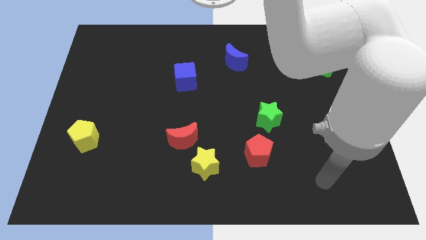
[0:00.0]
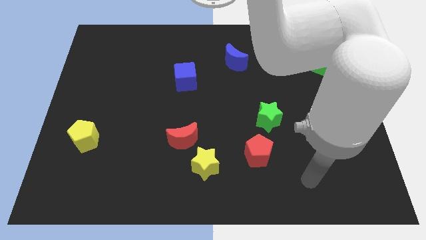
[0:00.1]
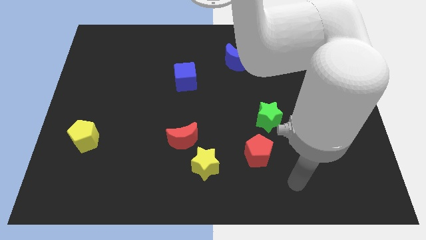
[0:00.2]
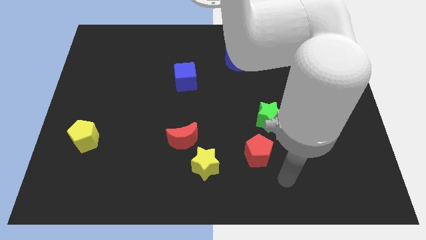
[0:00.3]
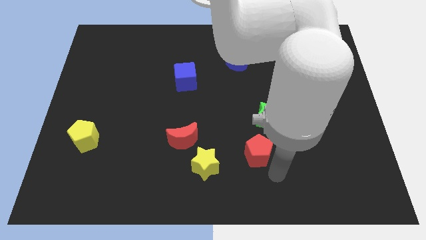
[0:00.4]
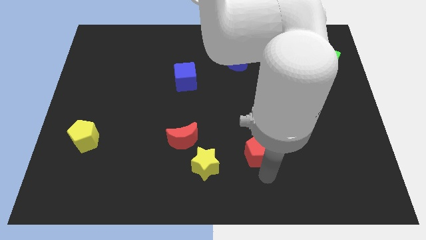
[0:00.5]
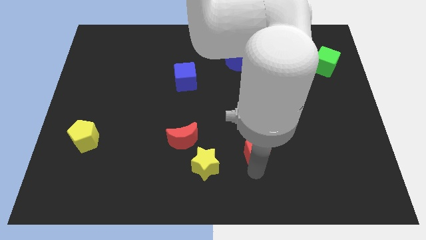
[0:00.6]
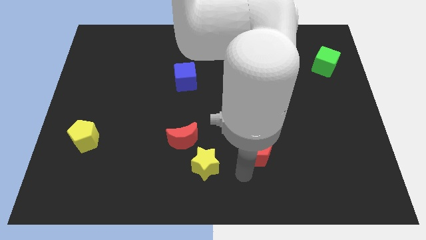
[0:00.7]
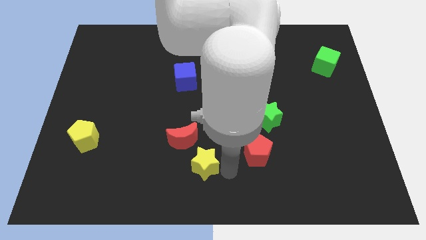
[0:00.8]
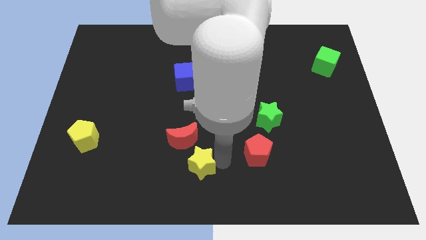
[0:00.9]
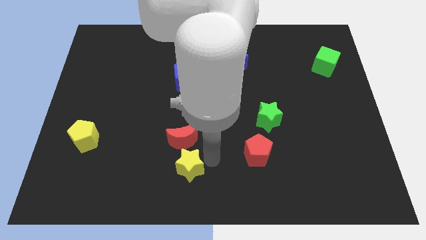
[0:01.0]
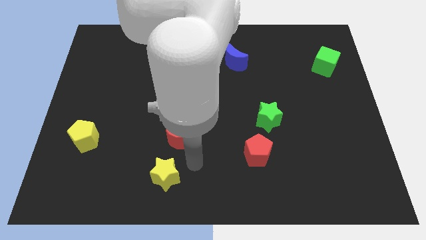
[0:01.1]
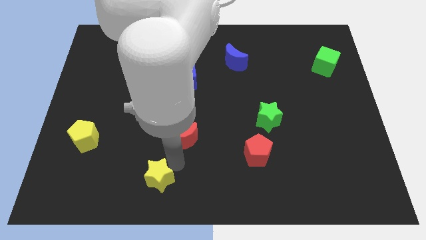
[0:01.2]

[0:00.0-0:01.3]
pull the red moon apart from the yellow star

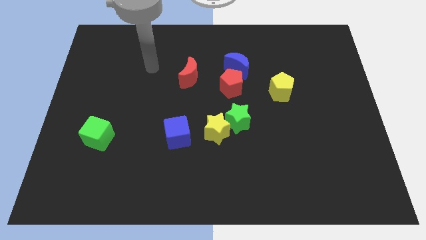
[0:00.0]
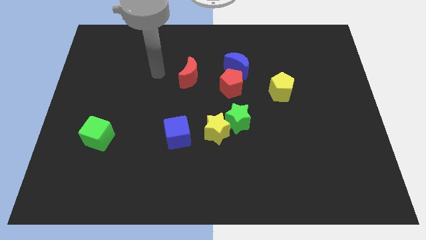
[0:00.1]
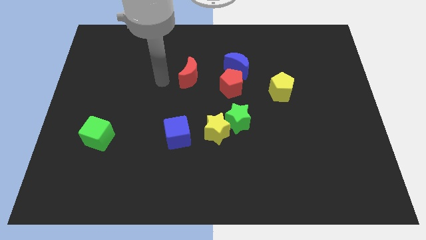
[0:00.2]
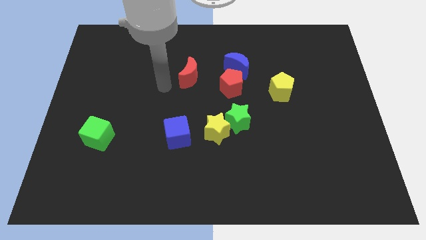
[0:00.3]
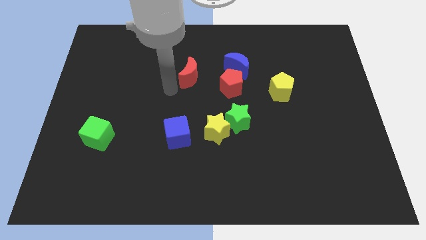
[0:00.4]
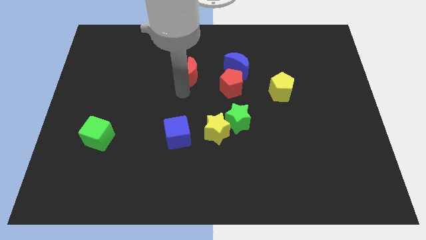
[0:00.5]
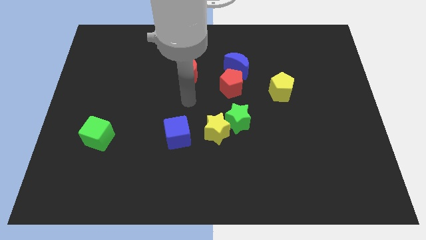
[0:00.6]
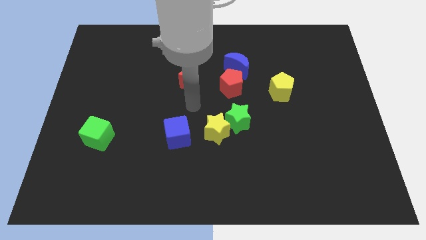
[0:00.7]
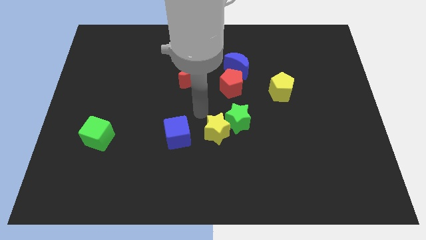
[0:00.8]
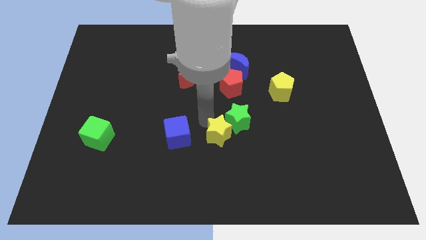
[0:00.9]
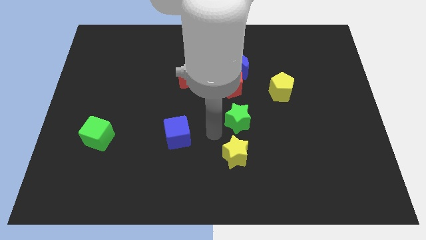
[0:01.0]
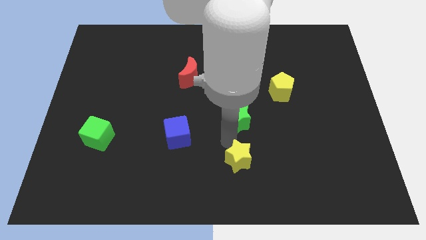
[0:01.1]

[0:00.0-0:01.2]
separate the green star from the yellow star

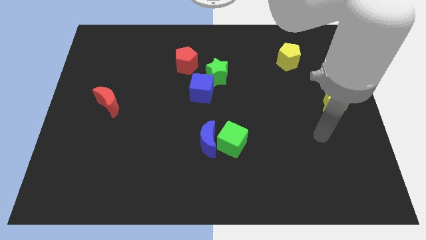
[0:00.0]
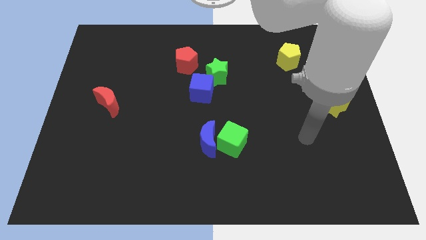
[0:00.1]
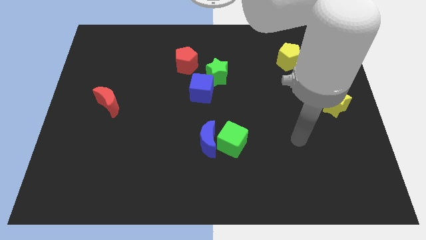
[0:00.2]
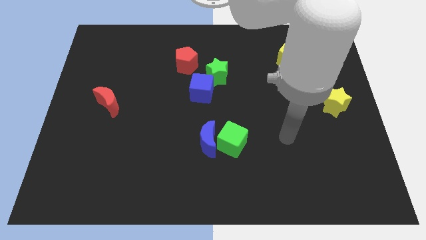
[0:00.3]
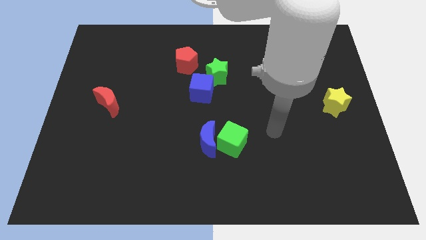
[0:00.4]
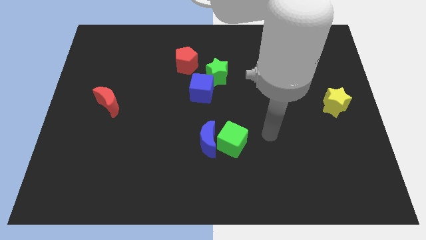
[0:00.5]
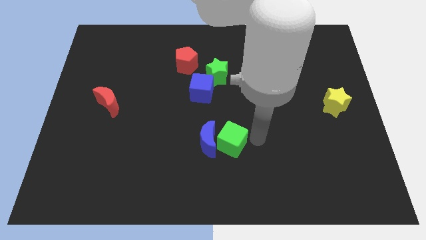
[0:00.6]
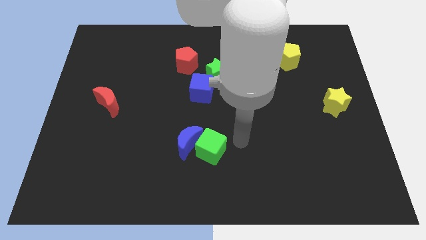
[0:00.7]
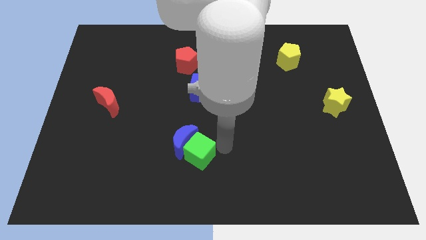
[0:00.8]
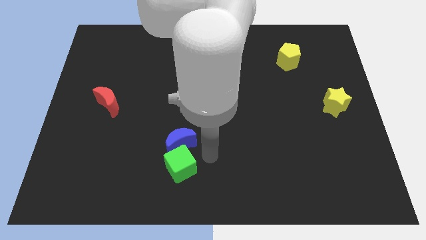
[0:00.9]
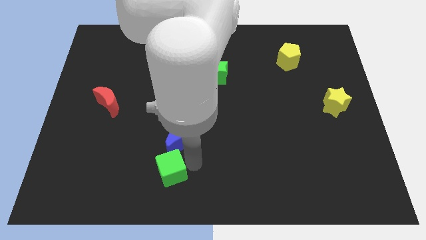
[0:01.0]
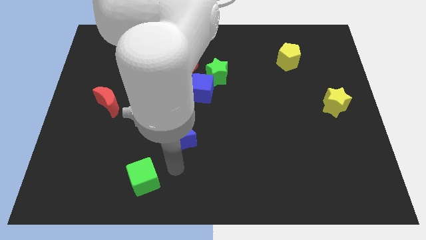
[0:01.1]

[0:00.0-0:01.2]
move the blue moon away from the green cube

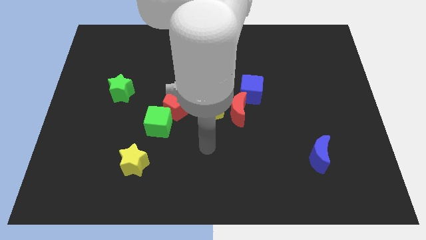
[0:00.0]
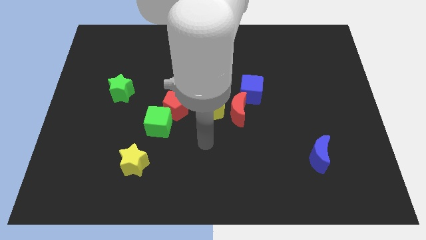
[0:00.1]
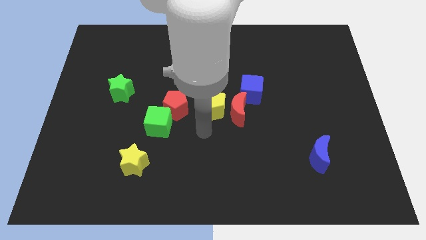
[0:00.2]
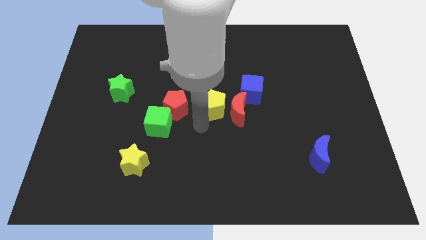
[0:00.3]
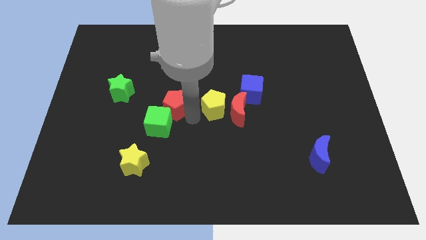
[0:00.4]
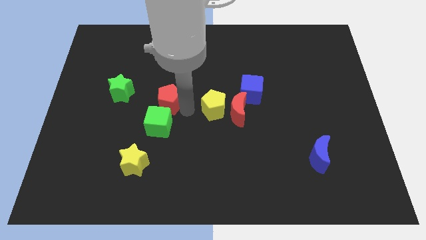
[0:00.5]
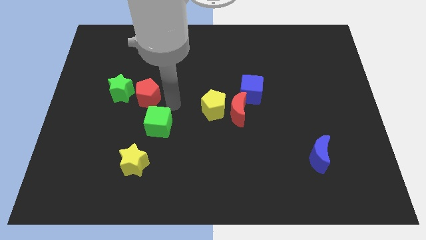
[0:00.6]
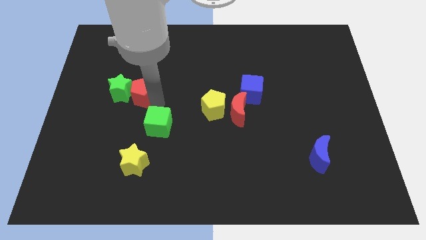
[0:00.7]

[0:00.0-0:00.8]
separate the green cube from the red pentagon

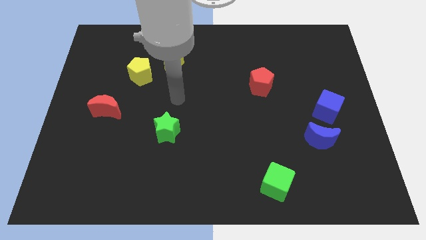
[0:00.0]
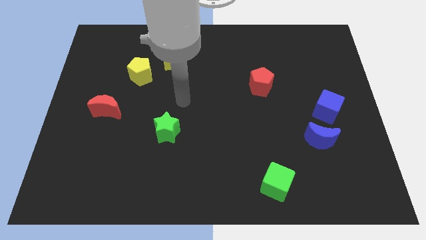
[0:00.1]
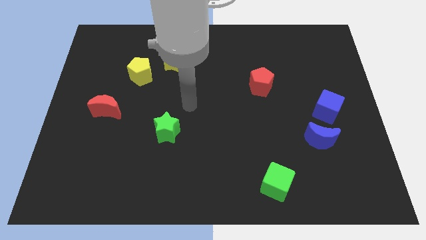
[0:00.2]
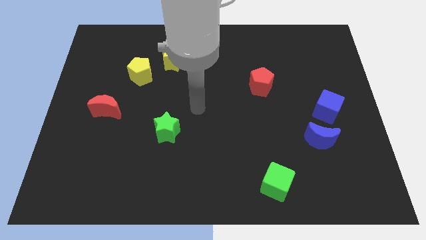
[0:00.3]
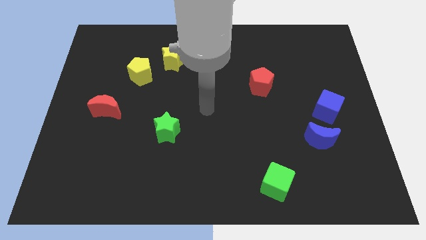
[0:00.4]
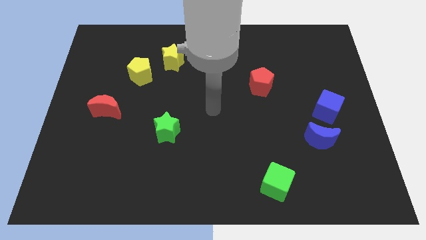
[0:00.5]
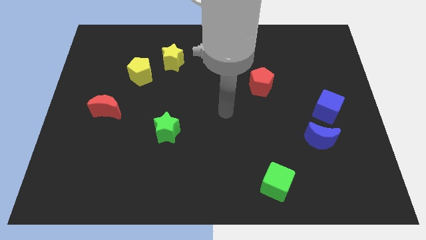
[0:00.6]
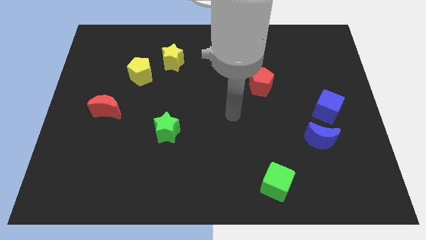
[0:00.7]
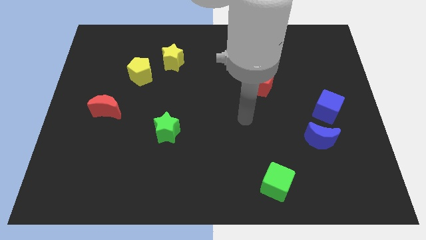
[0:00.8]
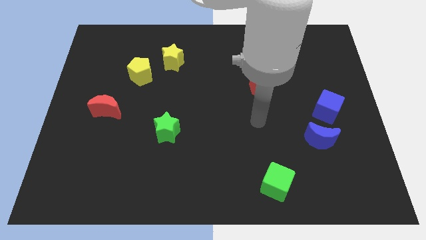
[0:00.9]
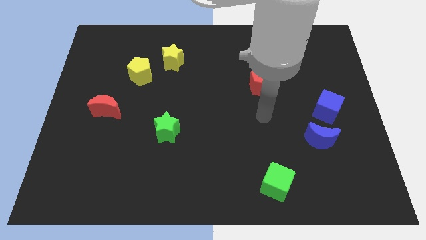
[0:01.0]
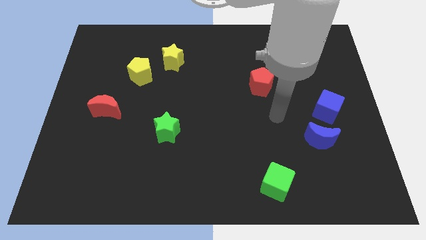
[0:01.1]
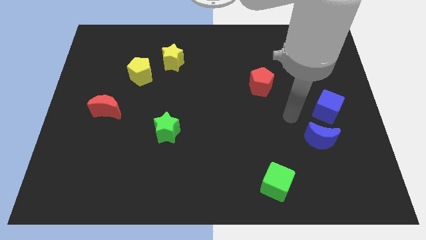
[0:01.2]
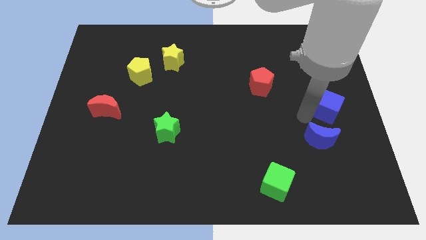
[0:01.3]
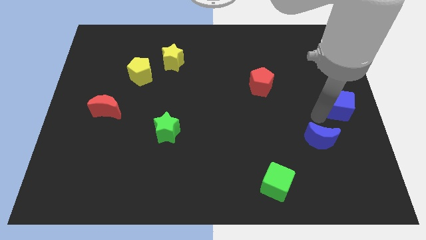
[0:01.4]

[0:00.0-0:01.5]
move the blue moon away from the blue cube

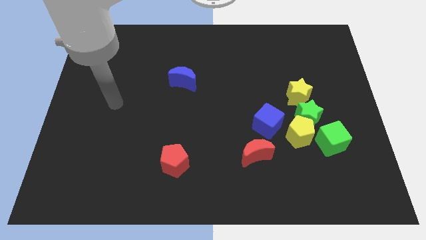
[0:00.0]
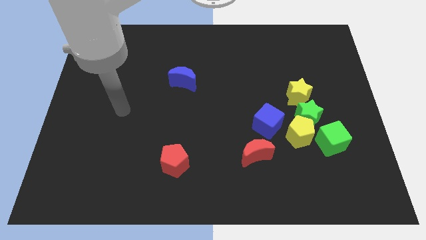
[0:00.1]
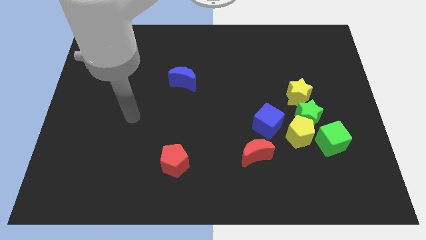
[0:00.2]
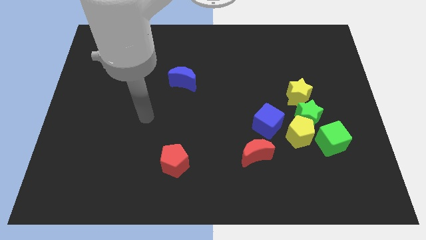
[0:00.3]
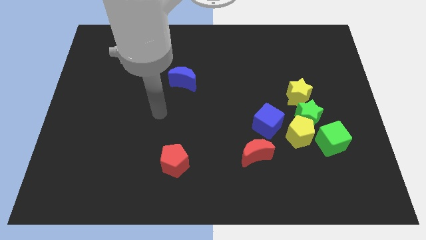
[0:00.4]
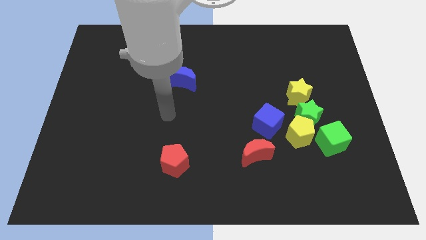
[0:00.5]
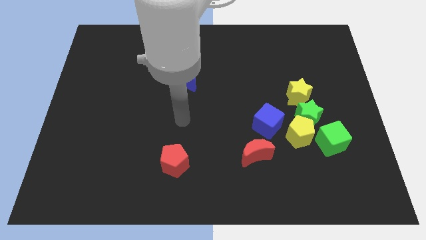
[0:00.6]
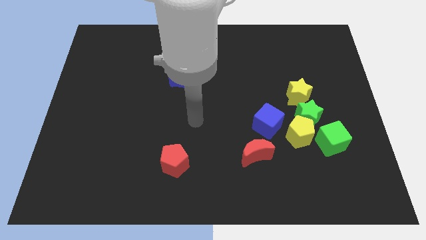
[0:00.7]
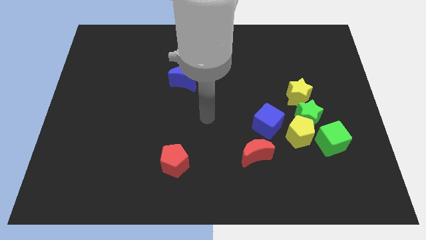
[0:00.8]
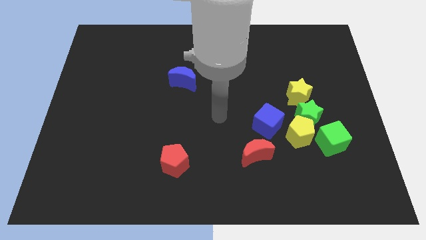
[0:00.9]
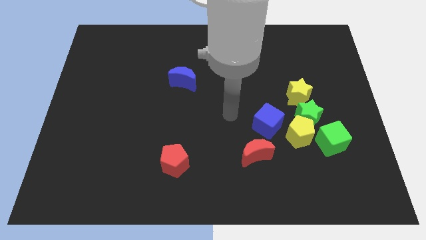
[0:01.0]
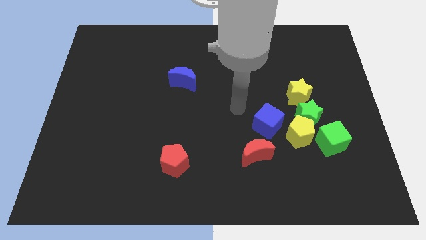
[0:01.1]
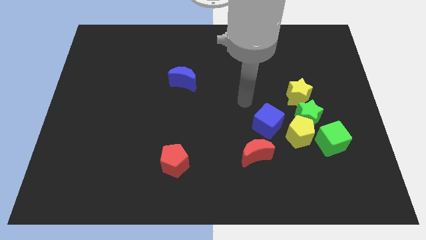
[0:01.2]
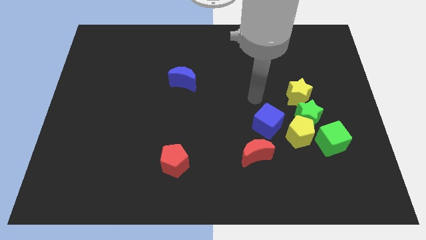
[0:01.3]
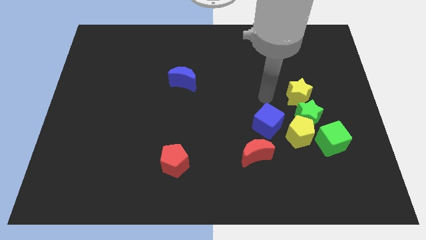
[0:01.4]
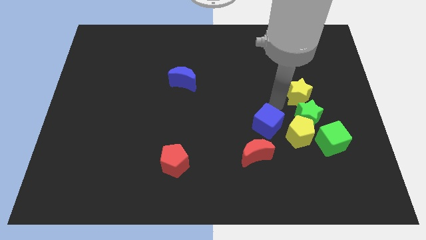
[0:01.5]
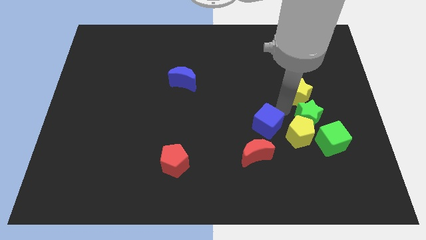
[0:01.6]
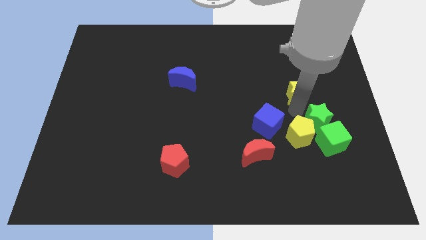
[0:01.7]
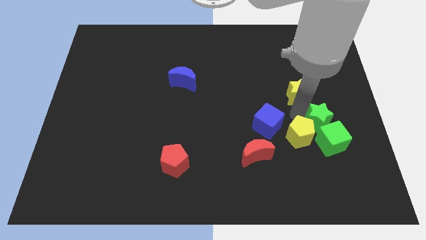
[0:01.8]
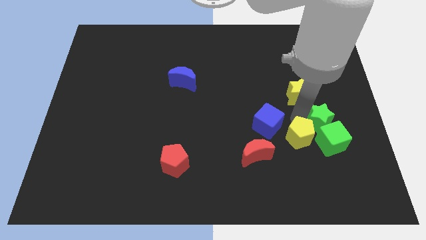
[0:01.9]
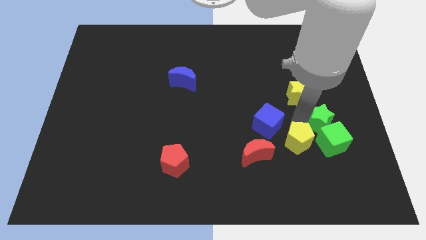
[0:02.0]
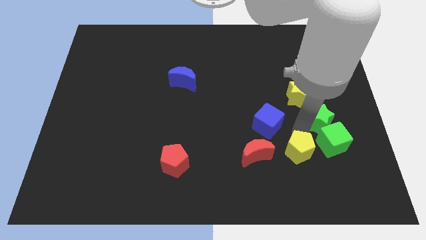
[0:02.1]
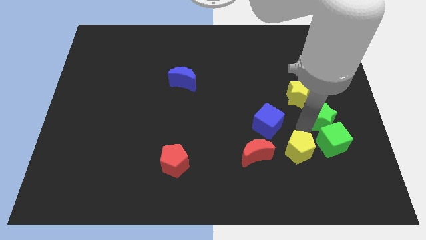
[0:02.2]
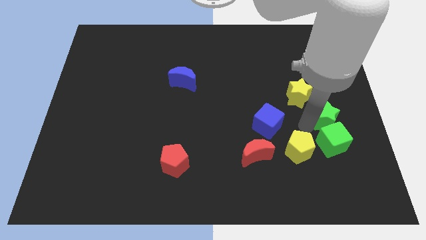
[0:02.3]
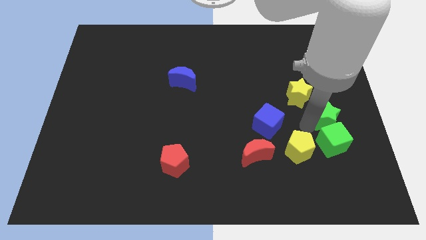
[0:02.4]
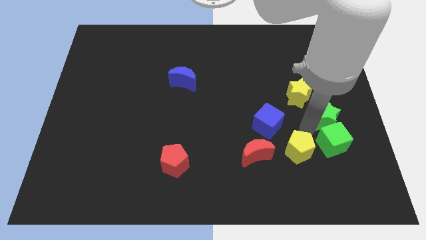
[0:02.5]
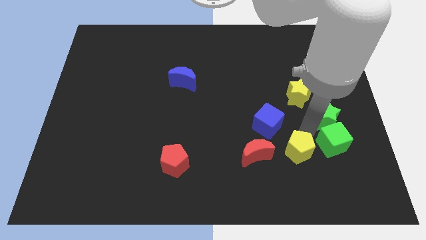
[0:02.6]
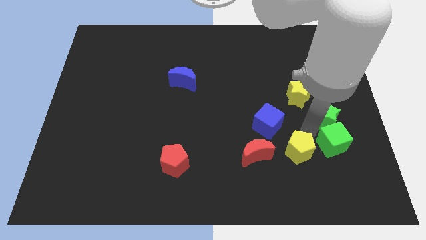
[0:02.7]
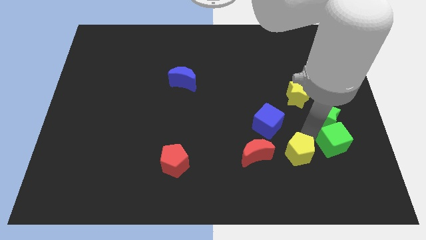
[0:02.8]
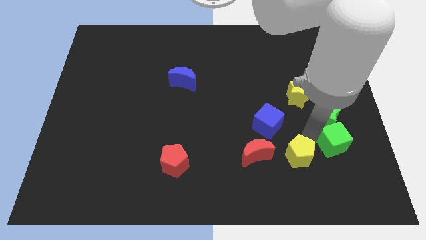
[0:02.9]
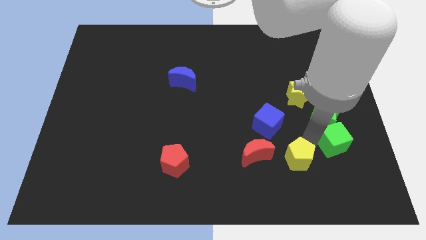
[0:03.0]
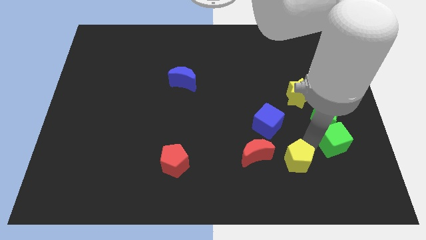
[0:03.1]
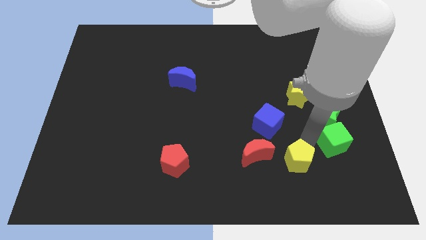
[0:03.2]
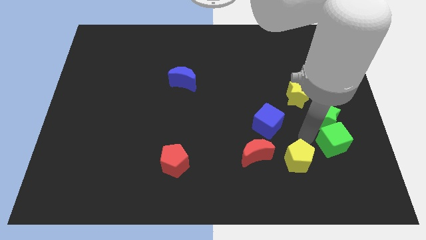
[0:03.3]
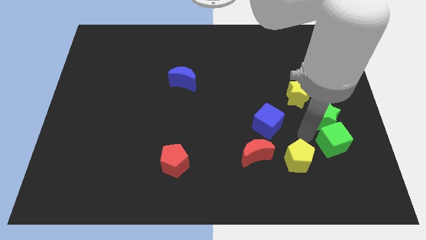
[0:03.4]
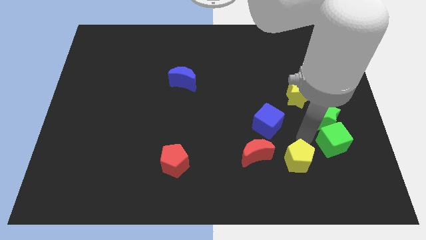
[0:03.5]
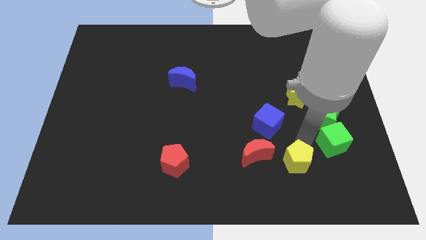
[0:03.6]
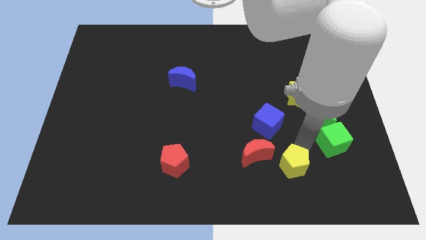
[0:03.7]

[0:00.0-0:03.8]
move the yellow pentagon away from the clump
